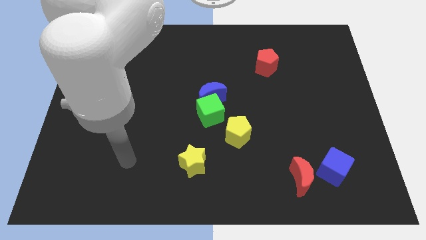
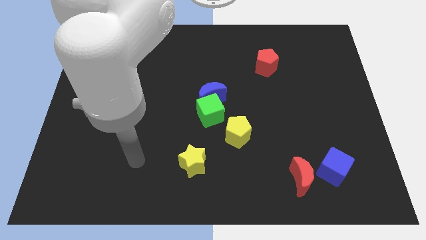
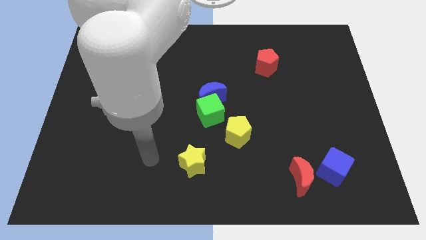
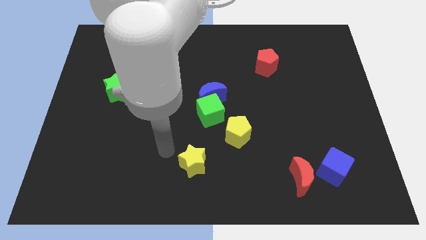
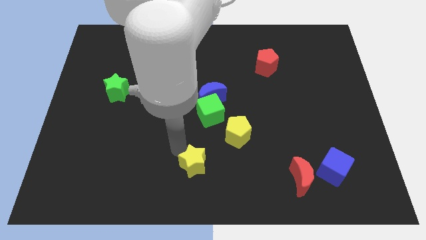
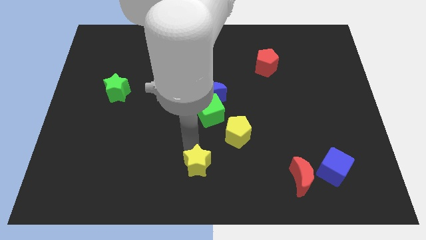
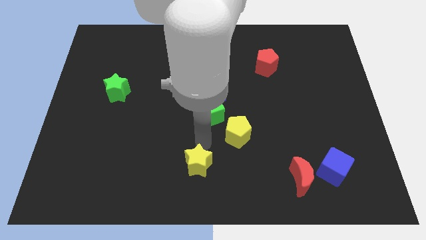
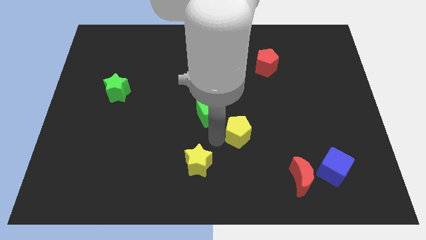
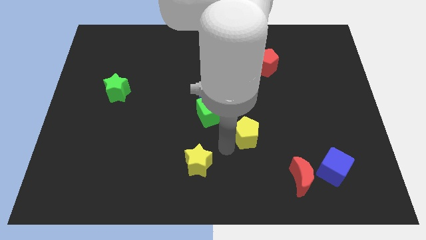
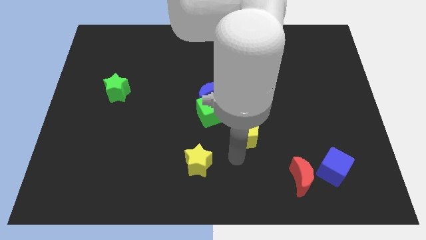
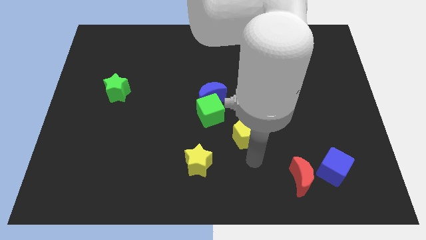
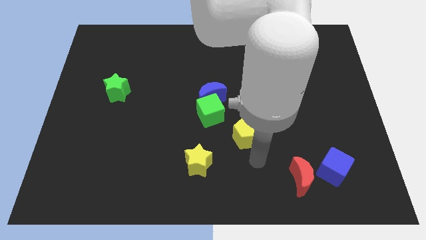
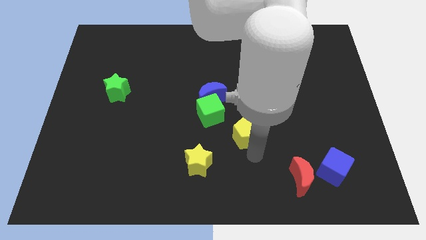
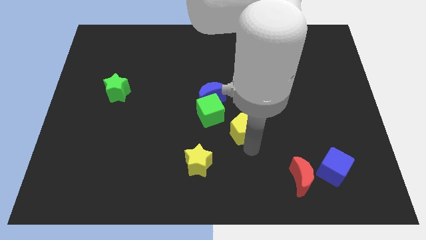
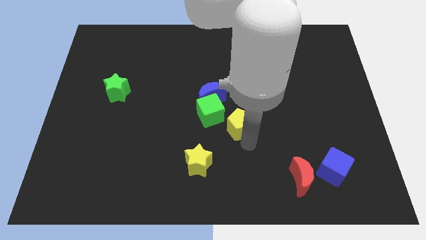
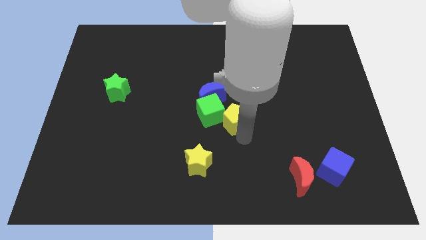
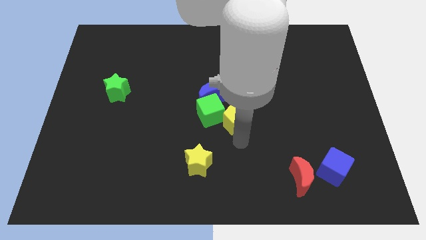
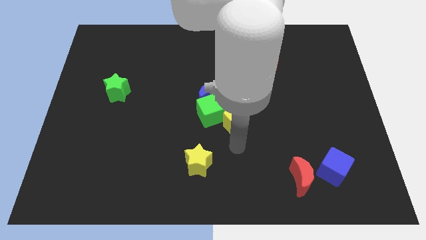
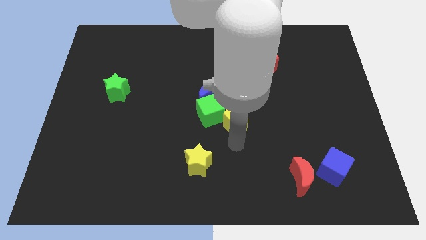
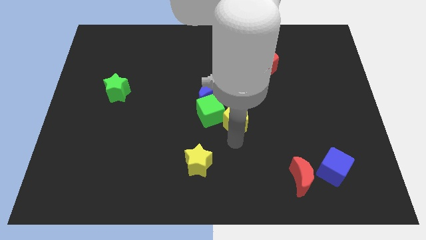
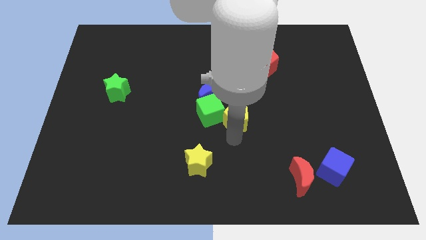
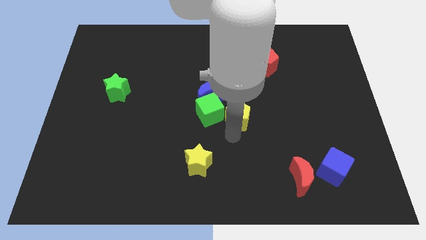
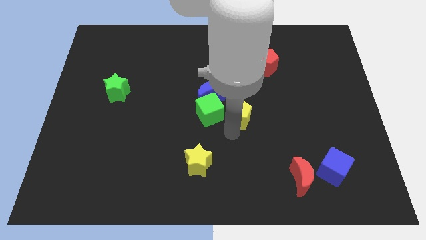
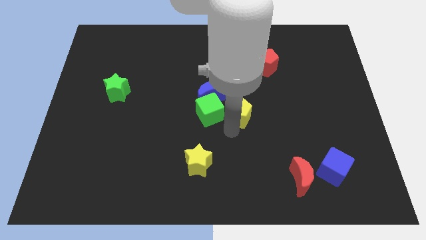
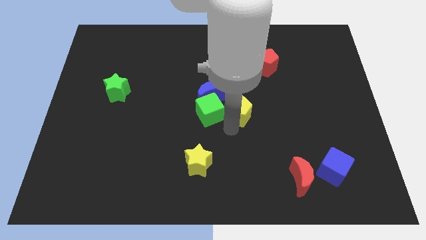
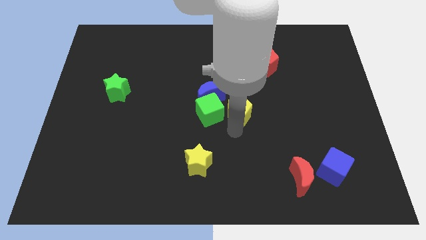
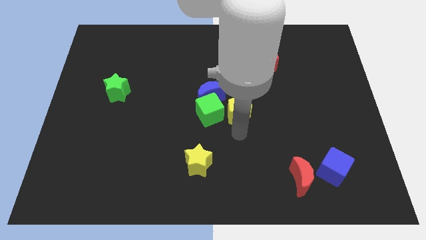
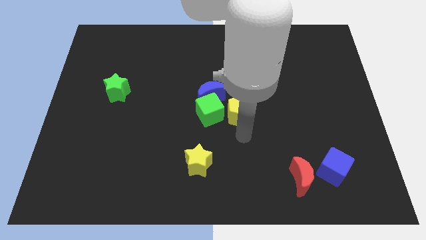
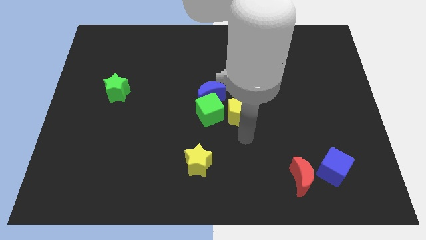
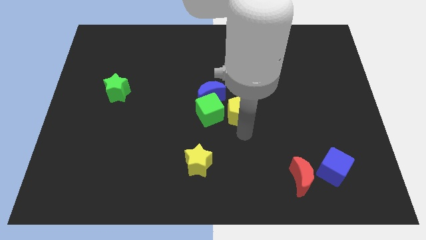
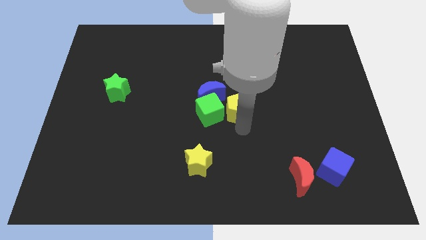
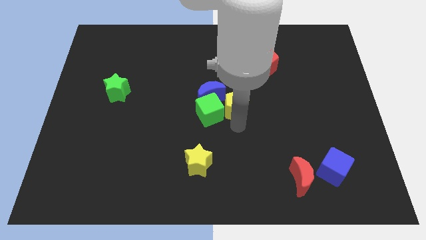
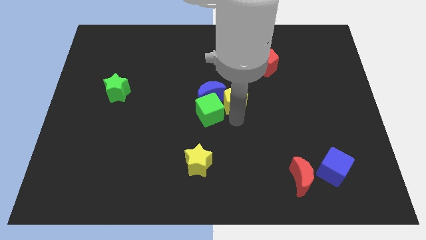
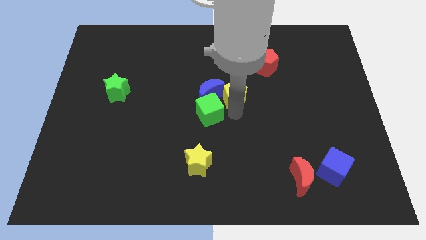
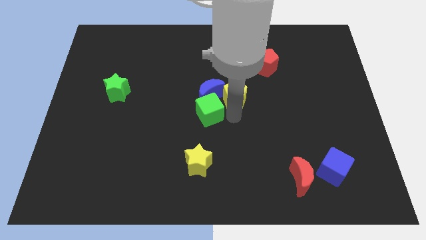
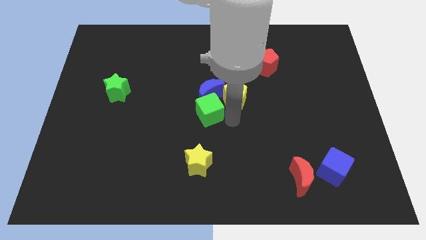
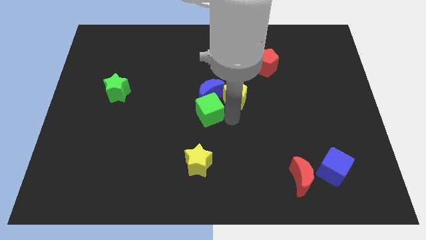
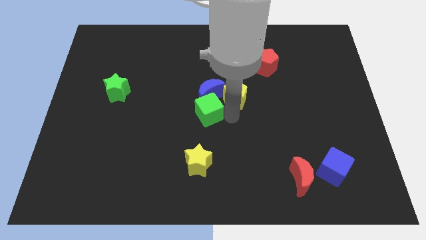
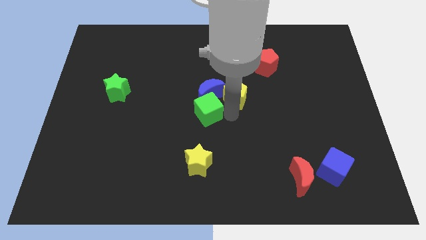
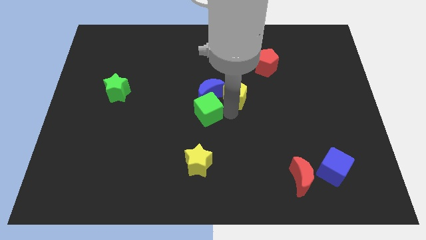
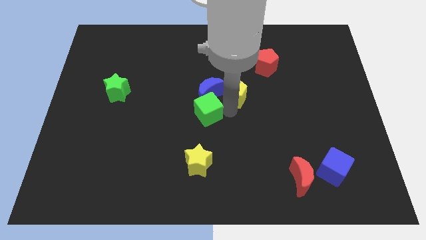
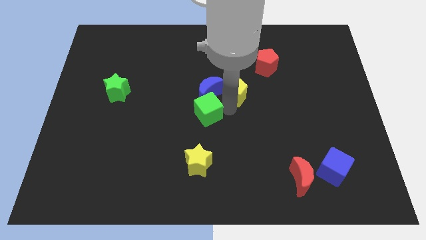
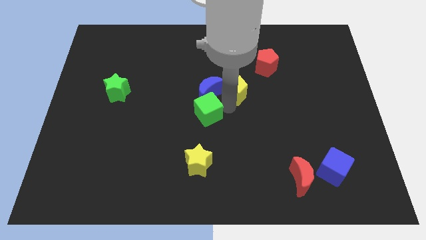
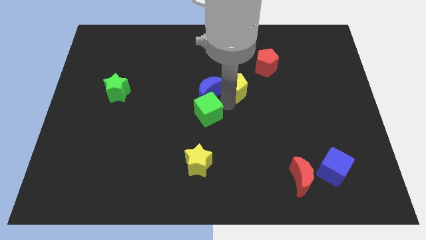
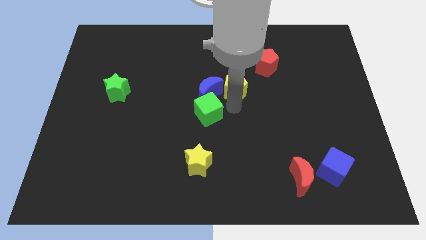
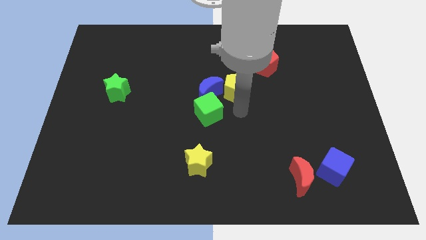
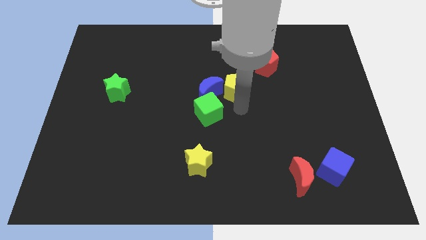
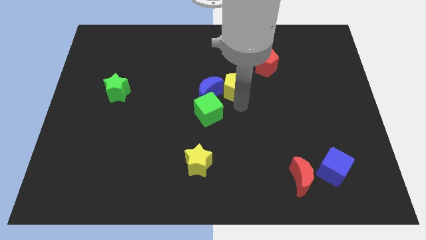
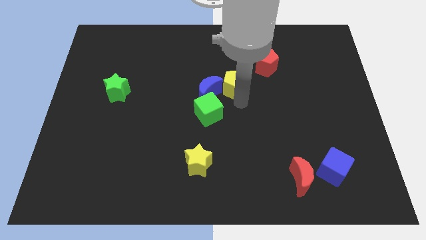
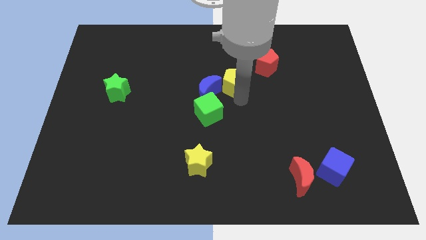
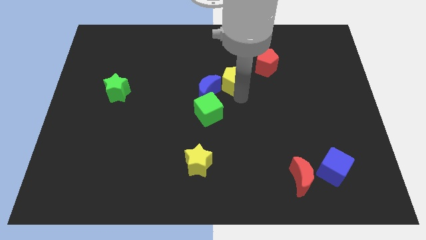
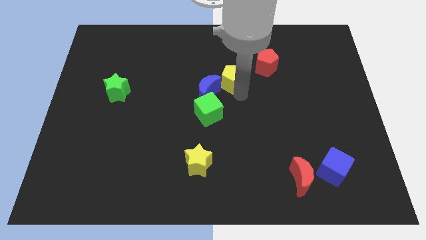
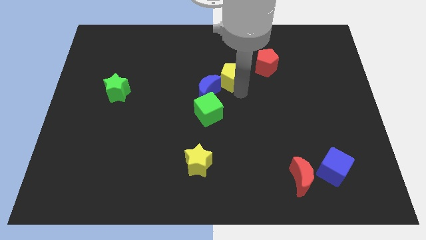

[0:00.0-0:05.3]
move the yellow pentagon to the left side of the red pentagon

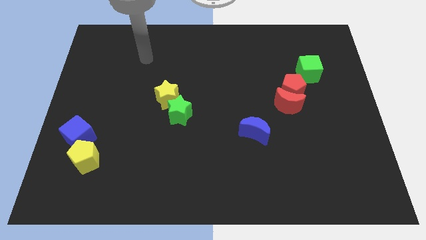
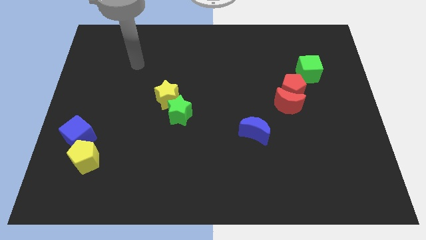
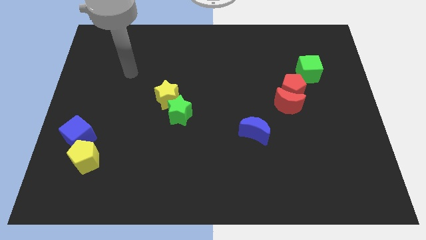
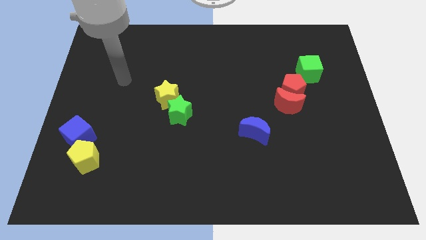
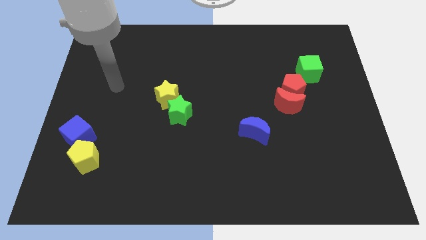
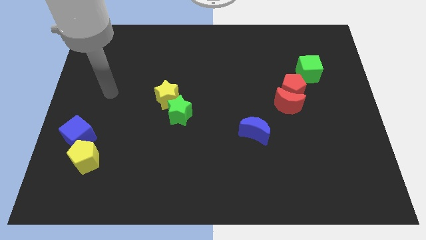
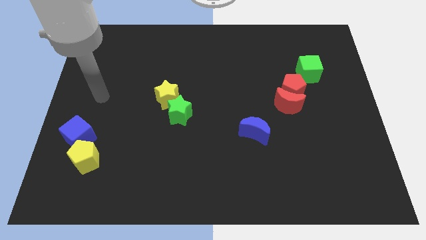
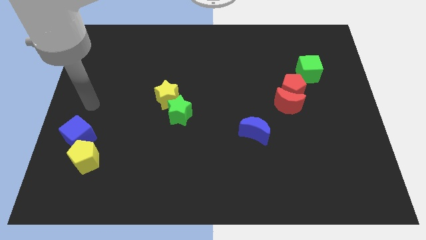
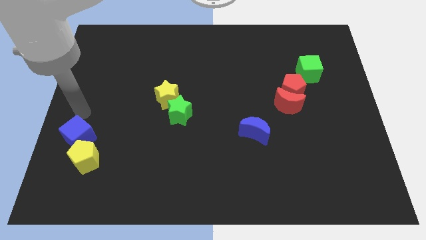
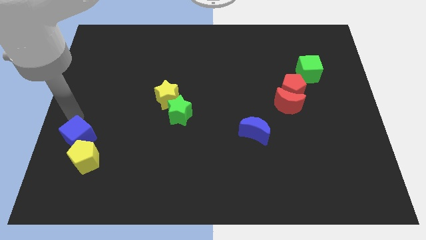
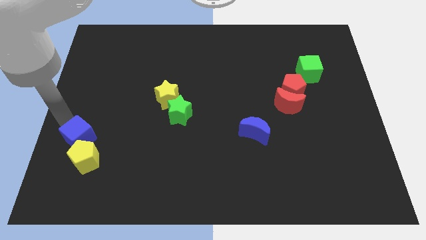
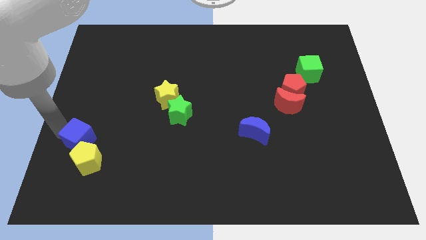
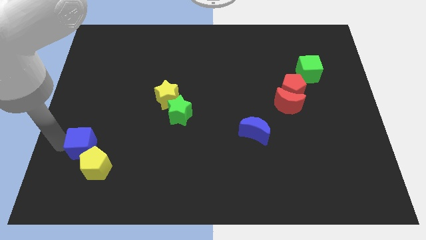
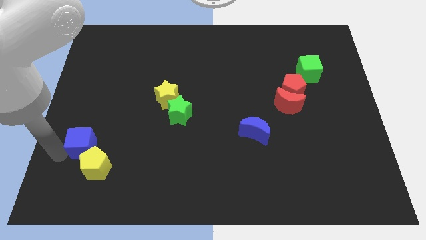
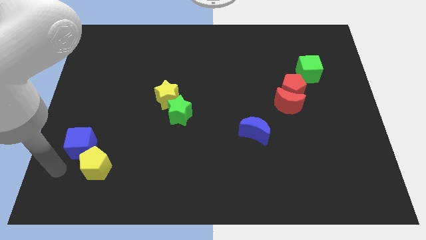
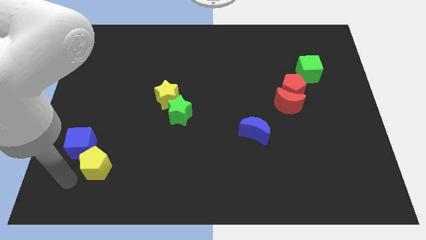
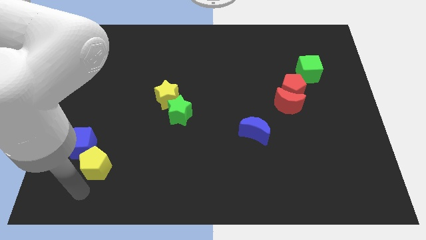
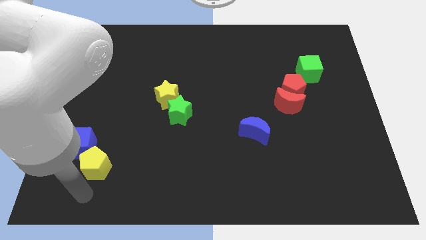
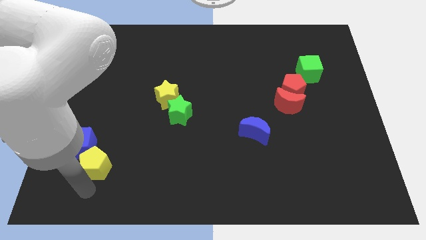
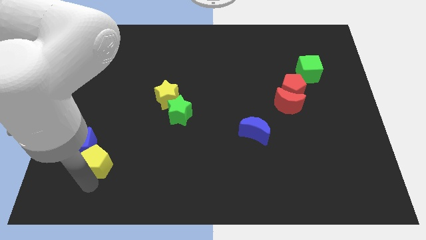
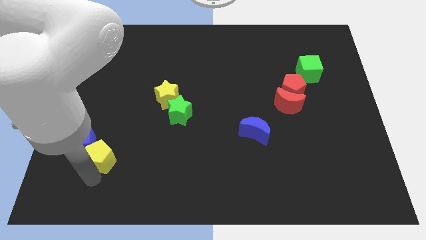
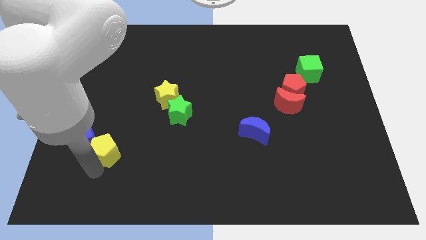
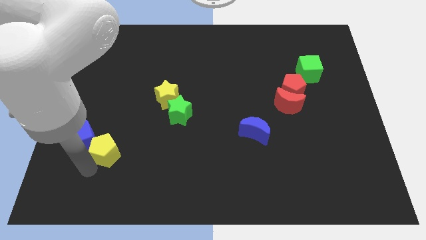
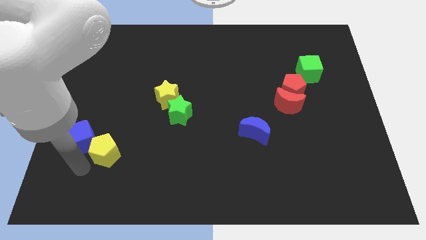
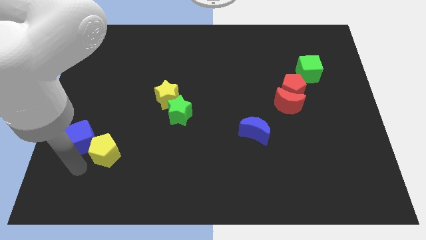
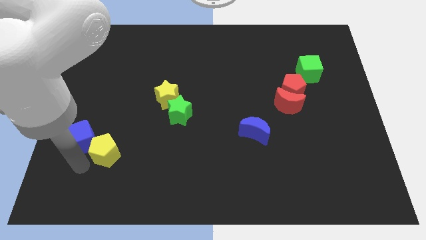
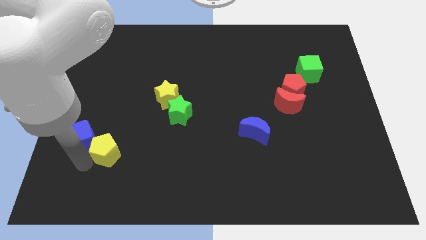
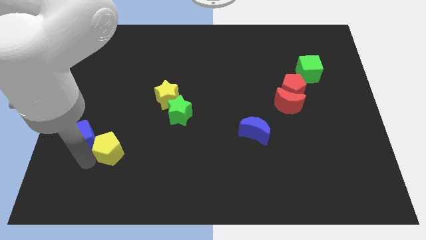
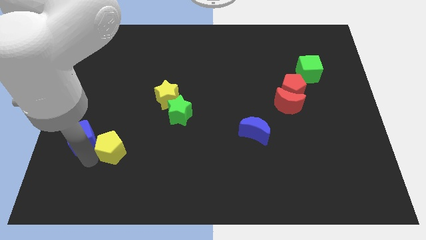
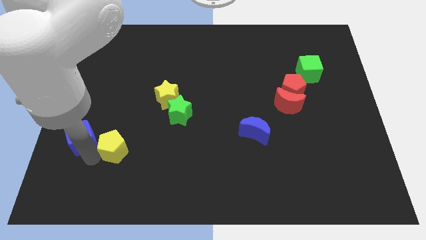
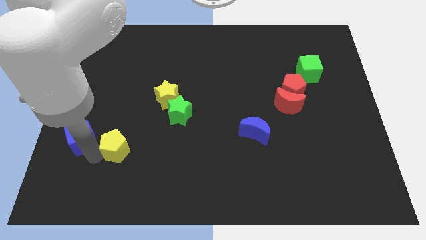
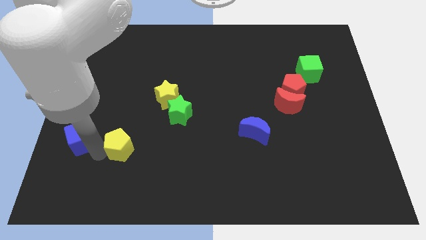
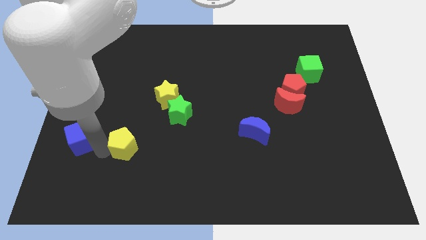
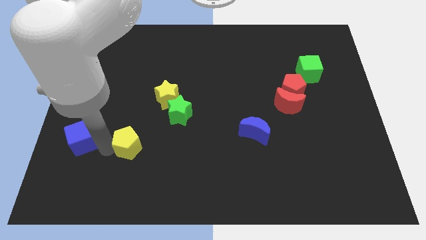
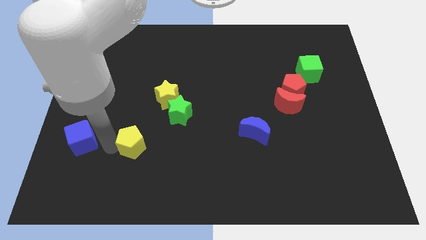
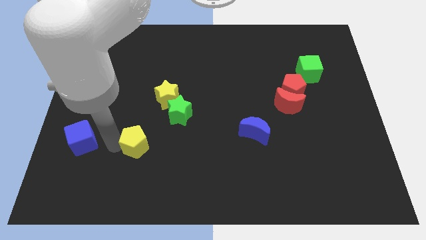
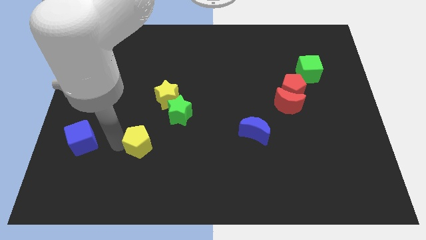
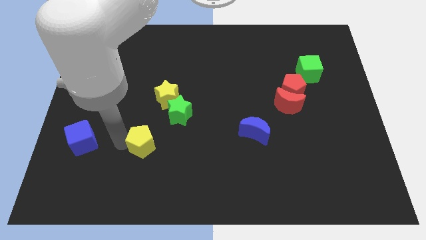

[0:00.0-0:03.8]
slide the yellow pentagon to the bottom of the yellow star
